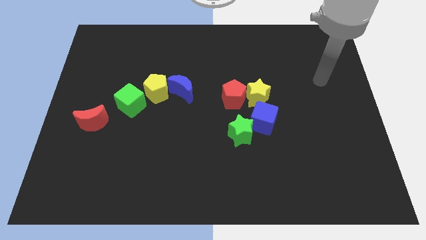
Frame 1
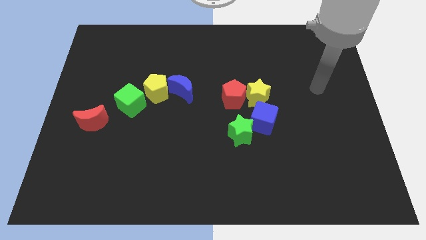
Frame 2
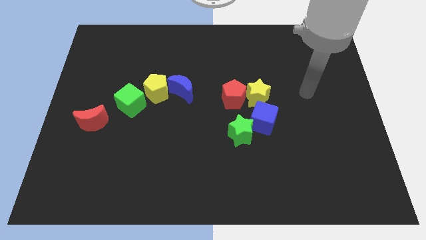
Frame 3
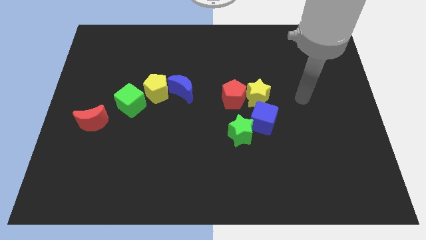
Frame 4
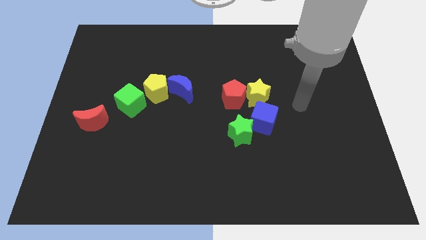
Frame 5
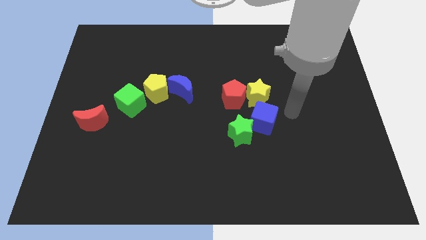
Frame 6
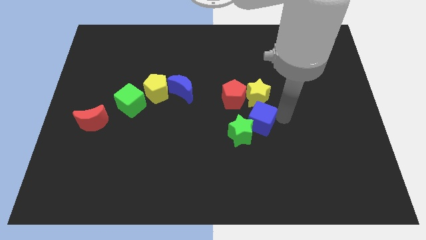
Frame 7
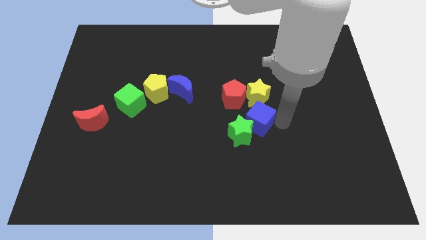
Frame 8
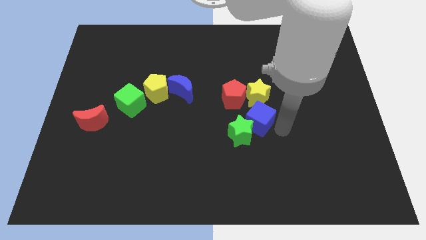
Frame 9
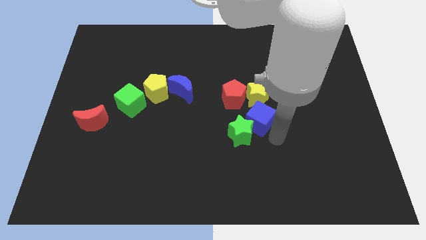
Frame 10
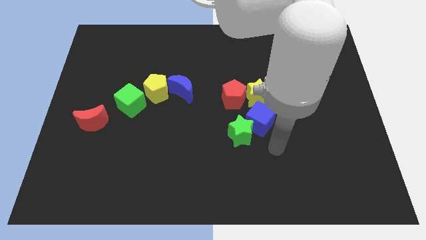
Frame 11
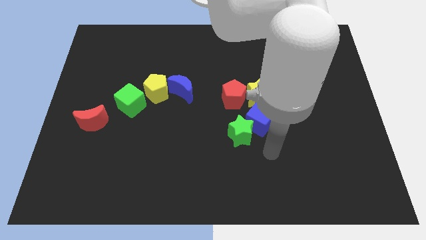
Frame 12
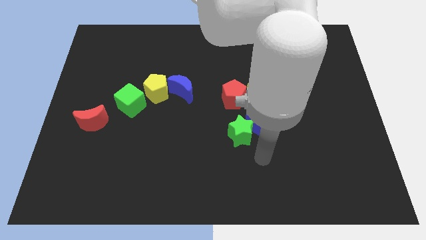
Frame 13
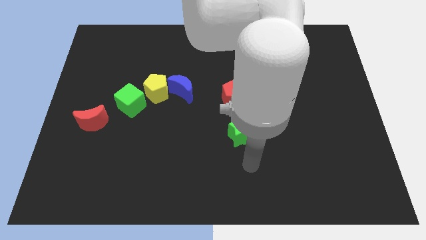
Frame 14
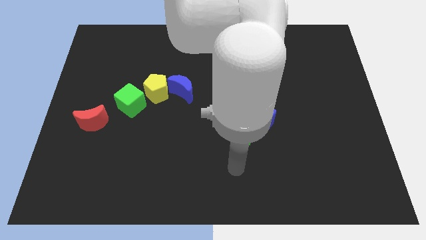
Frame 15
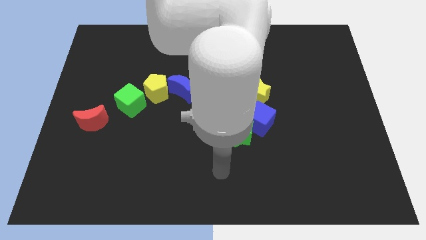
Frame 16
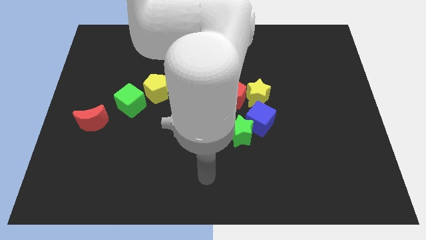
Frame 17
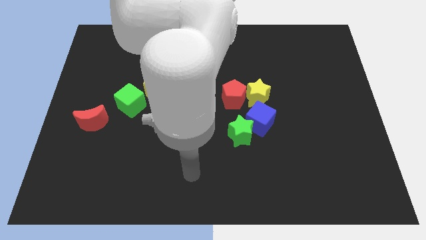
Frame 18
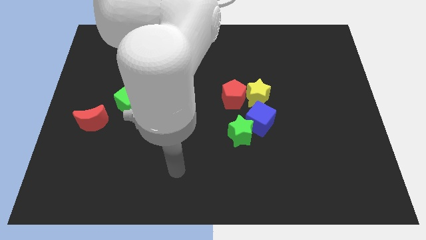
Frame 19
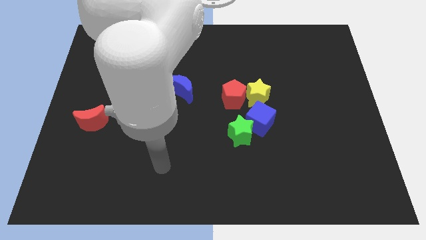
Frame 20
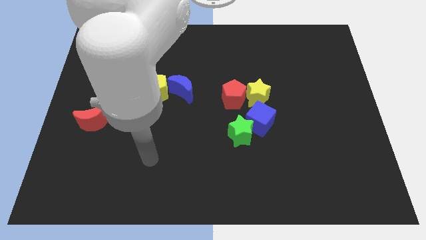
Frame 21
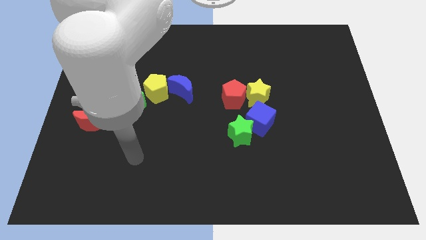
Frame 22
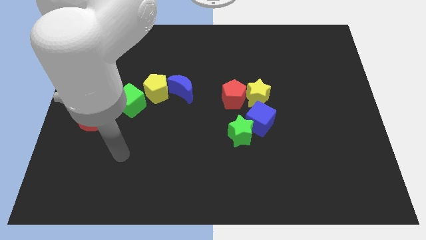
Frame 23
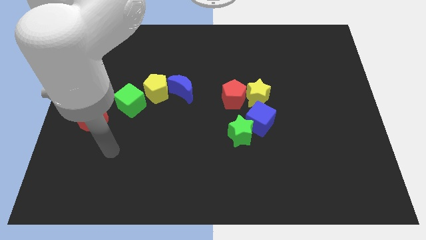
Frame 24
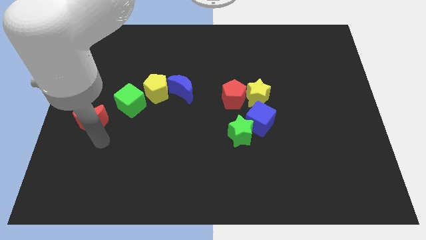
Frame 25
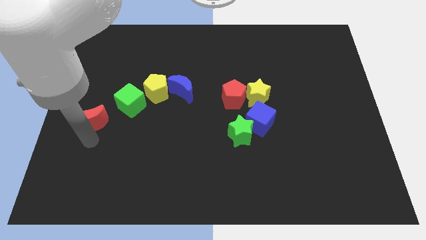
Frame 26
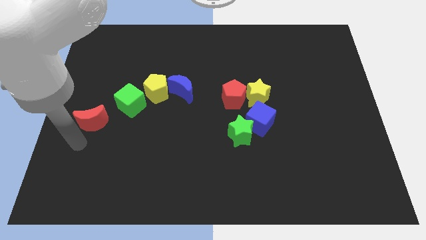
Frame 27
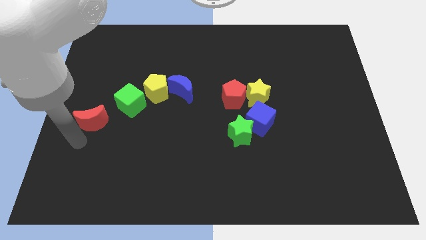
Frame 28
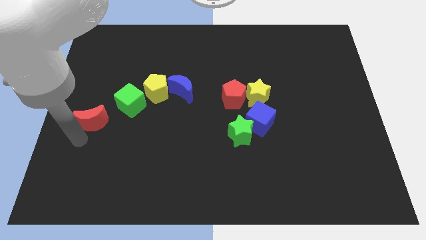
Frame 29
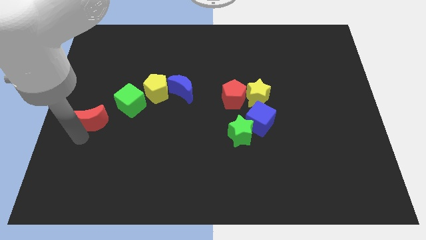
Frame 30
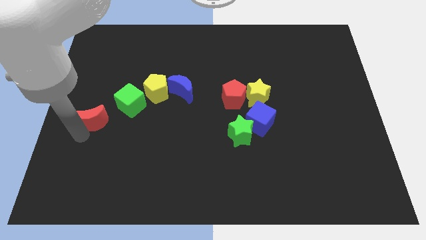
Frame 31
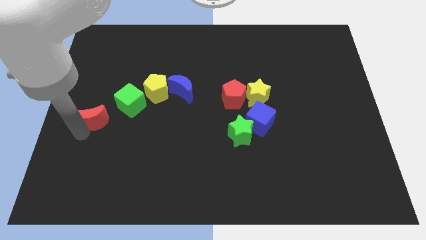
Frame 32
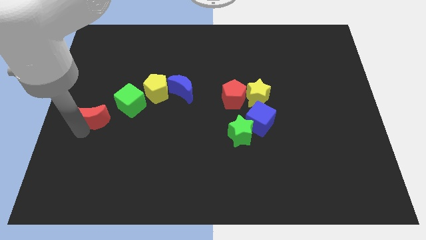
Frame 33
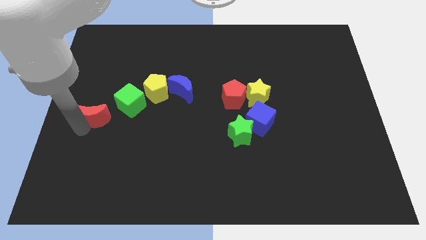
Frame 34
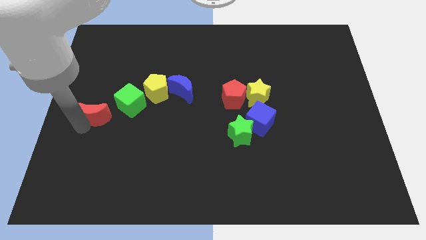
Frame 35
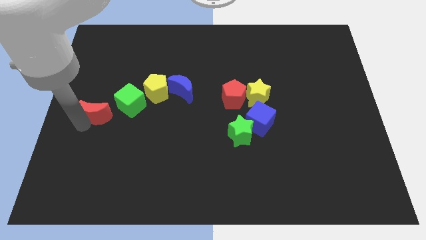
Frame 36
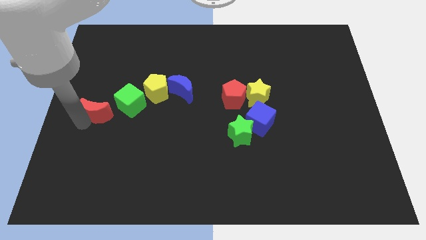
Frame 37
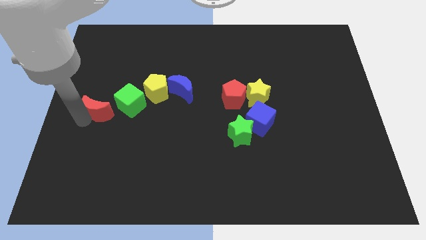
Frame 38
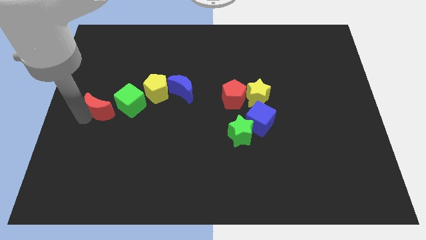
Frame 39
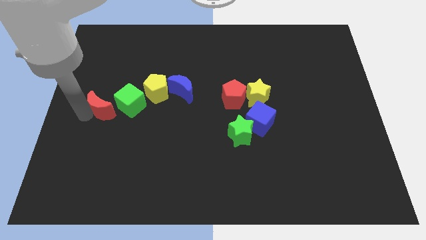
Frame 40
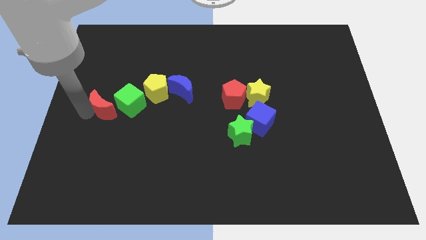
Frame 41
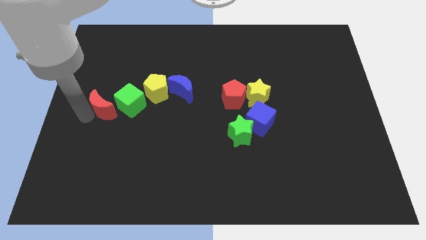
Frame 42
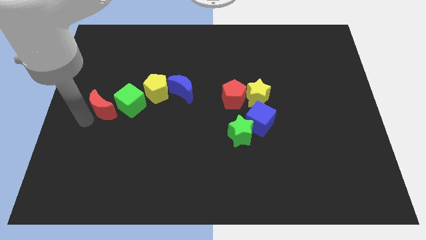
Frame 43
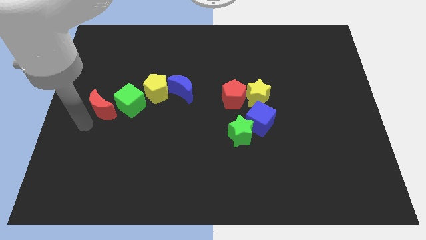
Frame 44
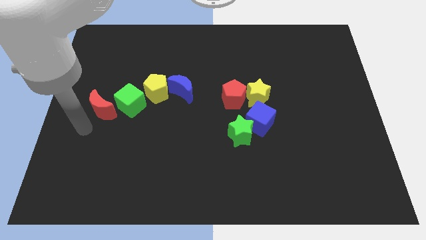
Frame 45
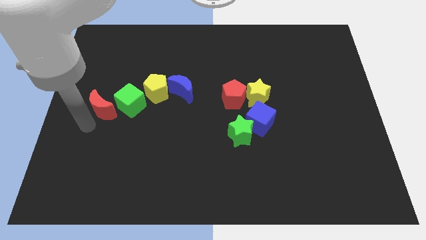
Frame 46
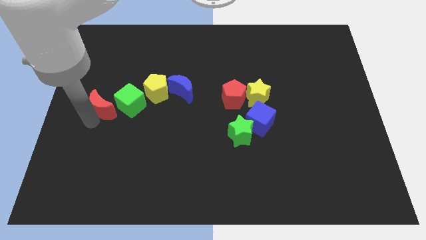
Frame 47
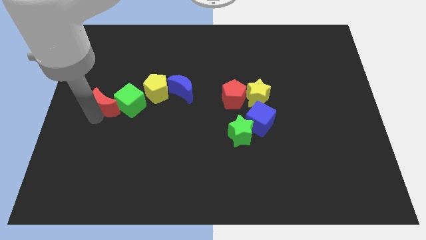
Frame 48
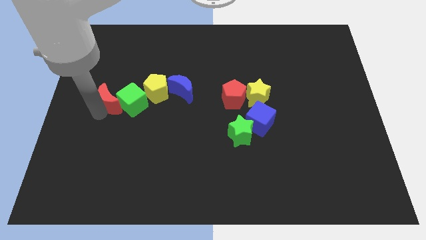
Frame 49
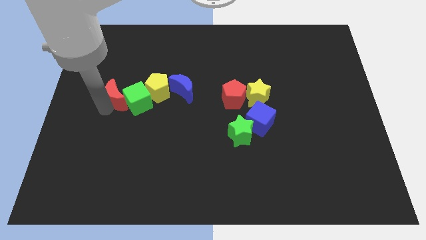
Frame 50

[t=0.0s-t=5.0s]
push the red moon upwards and right diagonally a bit

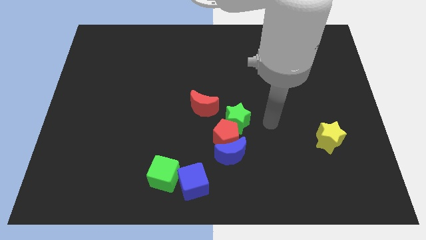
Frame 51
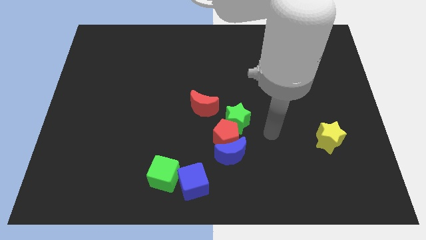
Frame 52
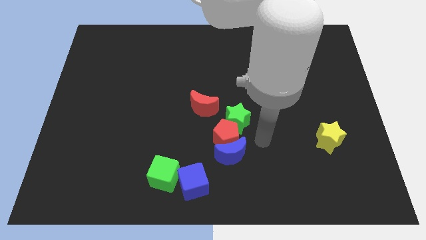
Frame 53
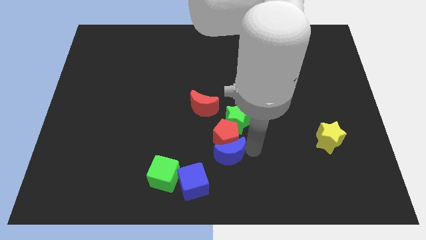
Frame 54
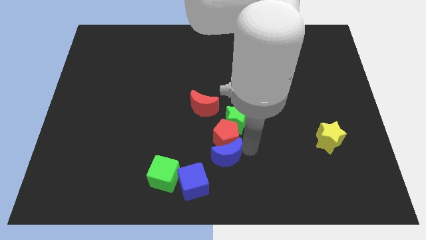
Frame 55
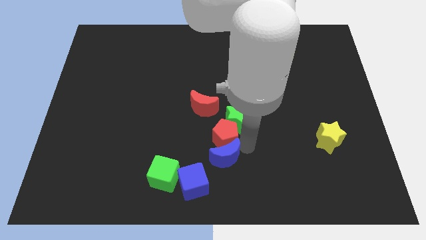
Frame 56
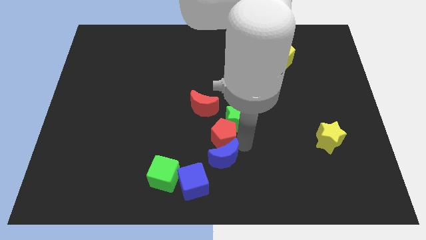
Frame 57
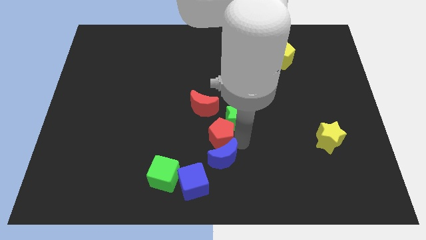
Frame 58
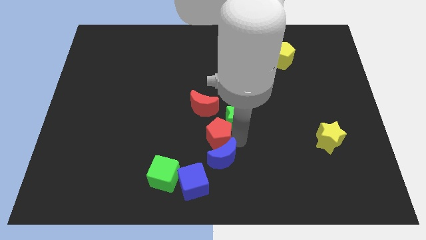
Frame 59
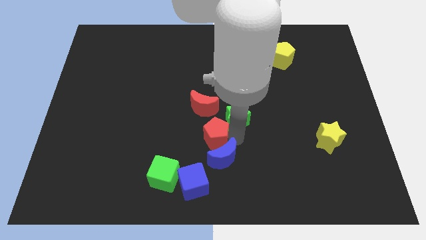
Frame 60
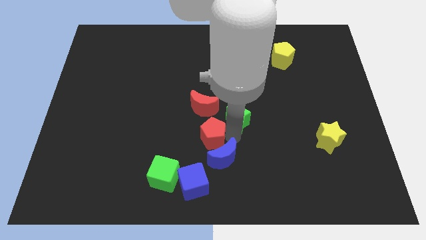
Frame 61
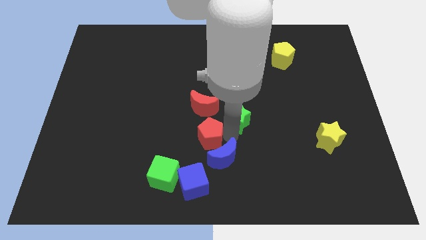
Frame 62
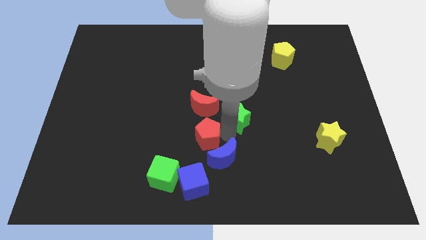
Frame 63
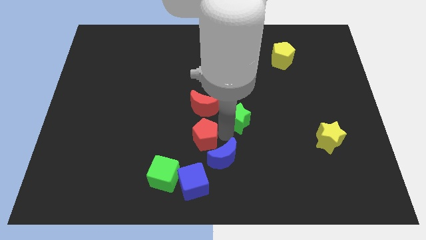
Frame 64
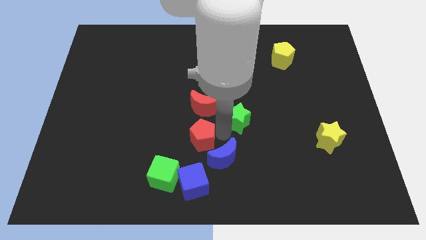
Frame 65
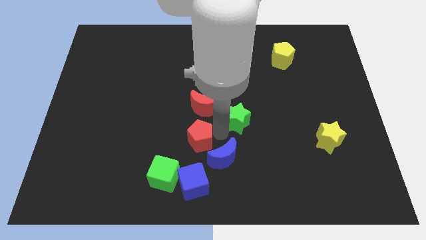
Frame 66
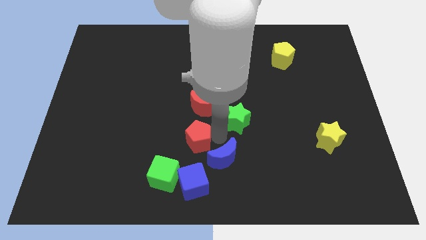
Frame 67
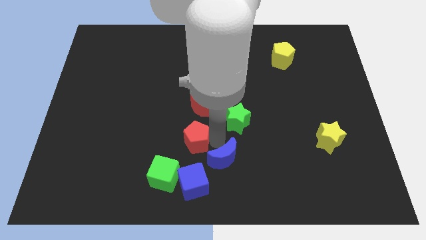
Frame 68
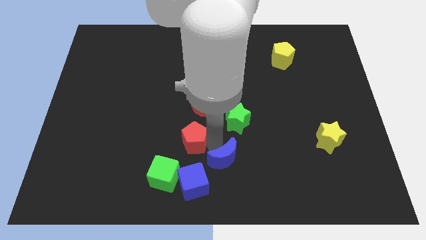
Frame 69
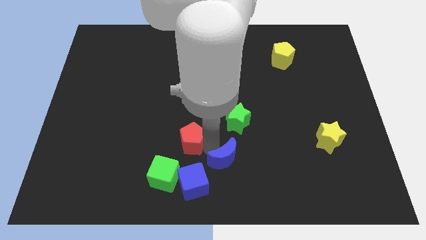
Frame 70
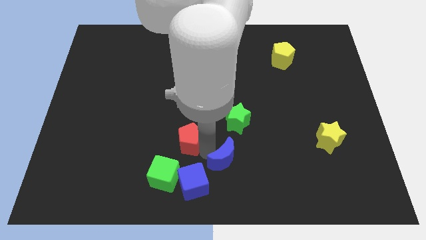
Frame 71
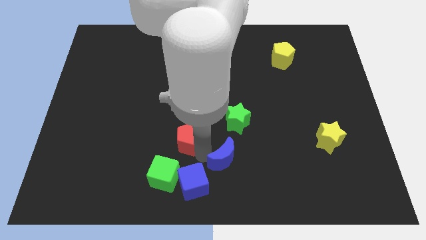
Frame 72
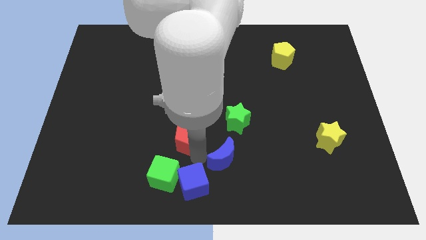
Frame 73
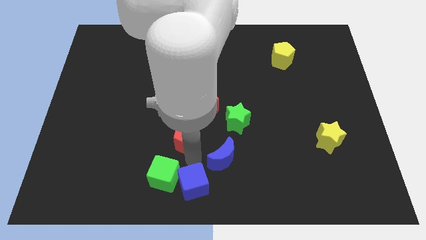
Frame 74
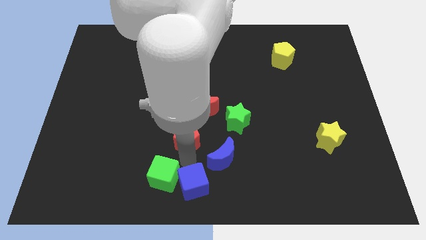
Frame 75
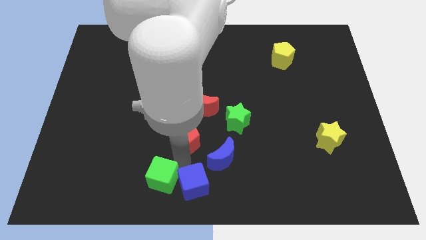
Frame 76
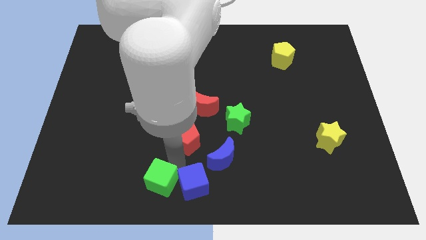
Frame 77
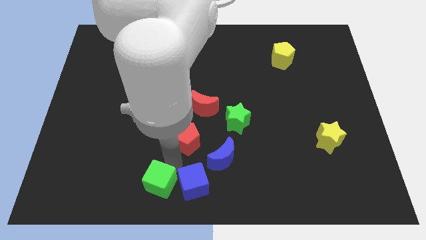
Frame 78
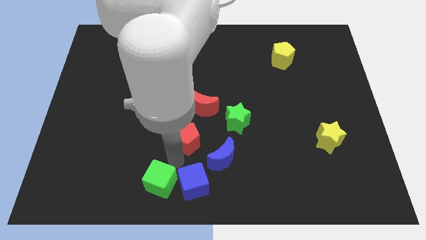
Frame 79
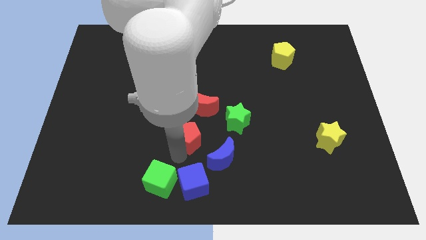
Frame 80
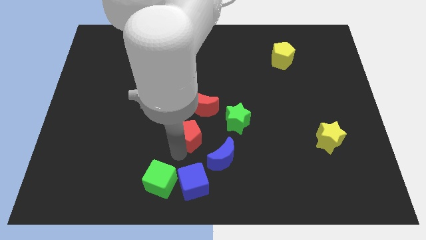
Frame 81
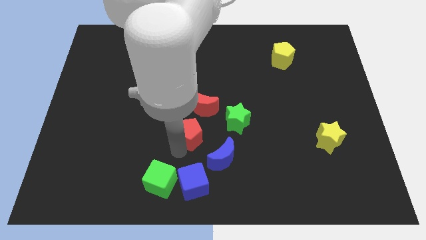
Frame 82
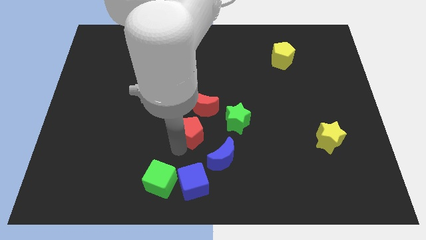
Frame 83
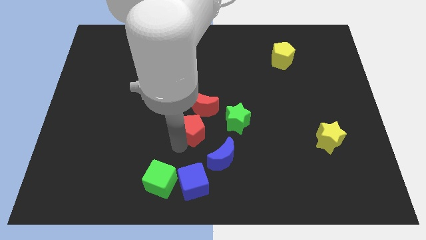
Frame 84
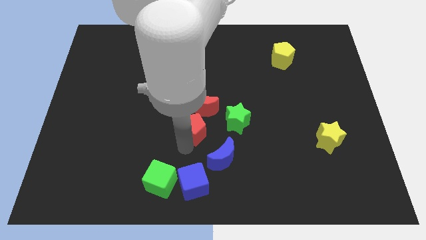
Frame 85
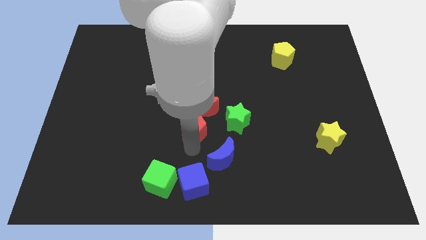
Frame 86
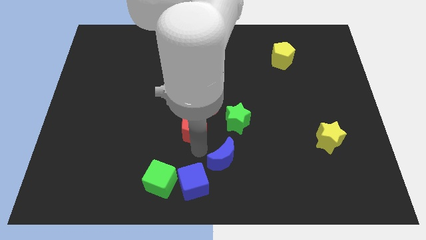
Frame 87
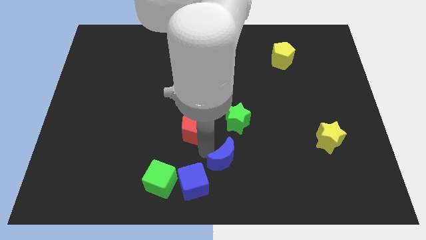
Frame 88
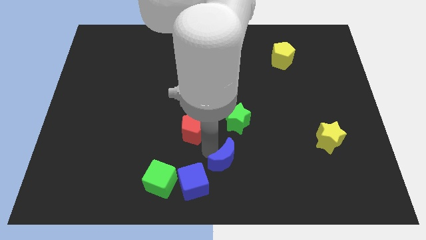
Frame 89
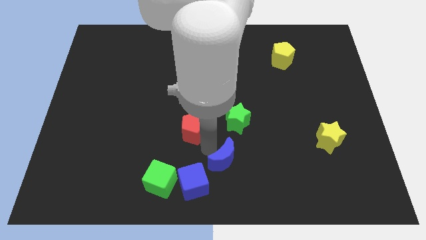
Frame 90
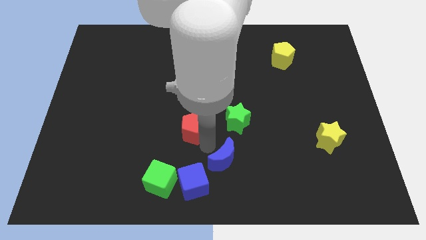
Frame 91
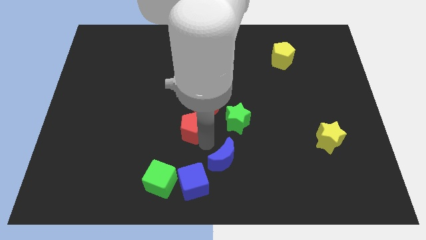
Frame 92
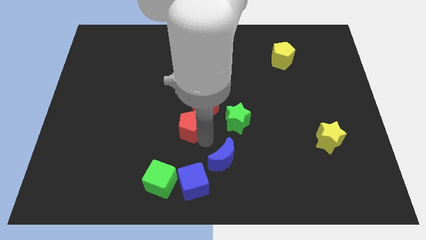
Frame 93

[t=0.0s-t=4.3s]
slightly slide the red pentagon up and left
